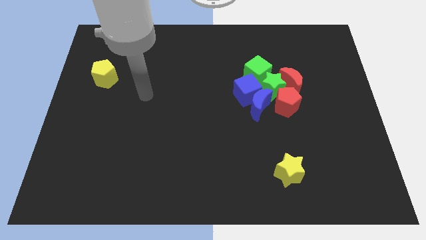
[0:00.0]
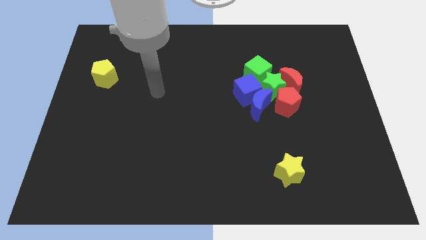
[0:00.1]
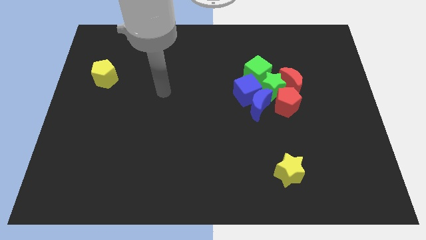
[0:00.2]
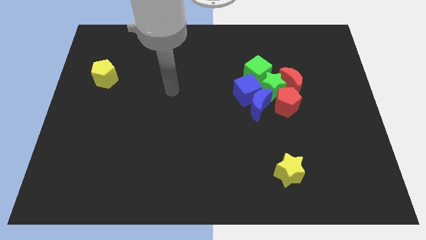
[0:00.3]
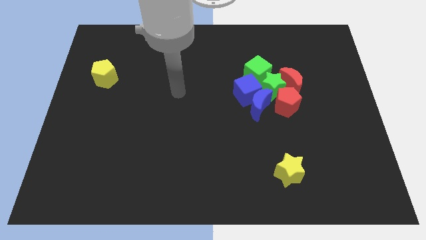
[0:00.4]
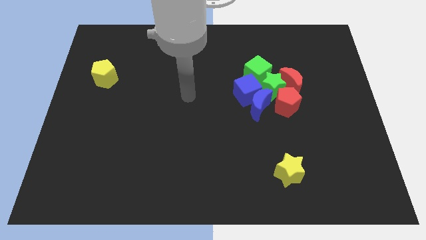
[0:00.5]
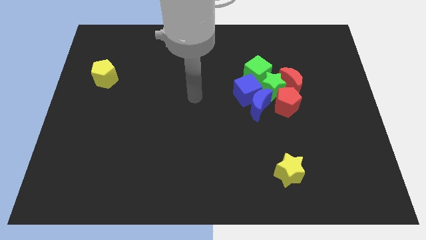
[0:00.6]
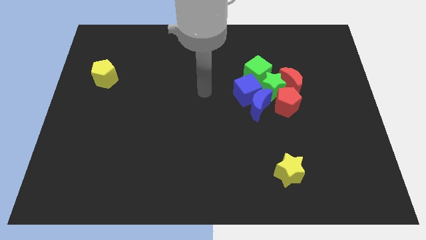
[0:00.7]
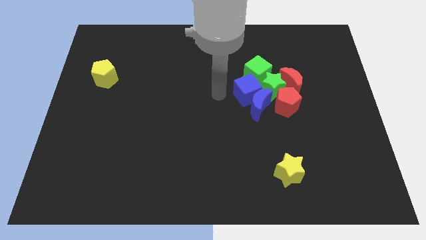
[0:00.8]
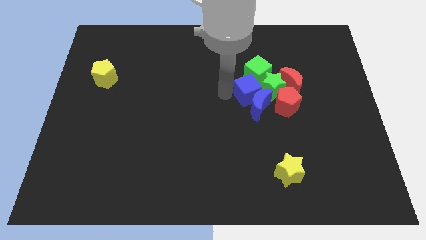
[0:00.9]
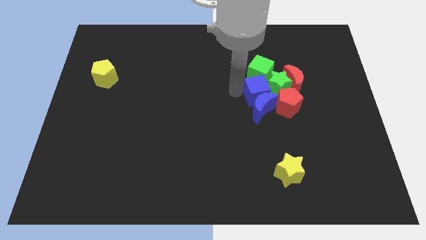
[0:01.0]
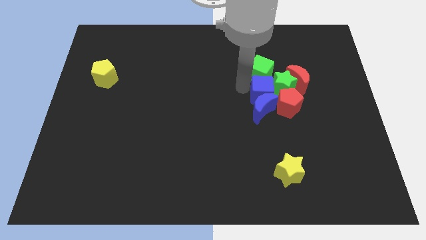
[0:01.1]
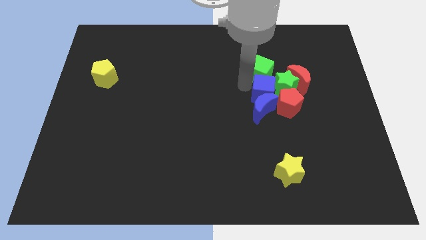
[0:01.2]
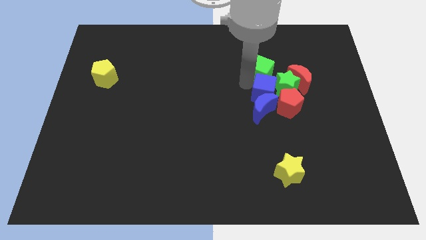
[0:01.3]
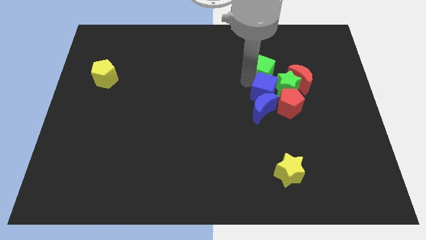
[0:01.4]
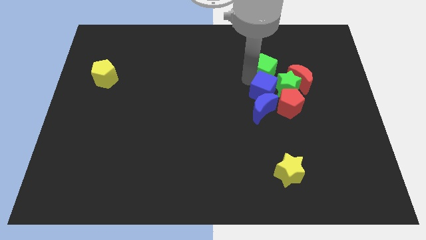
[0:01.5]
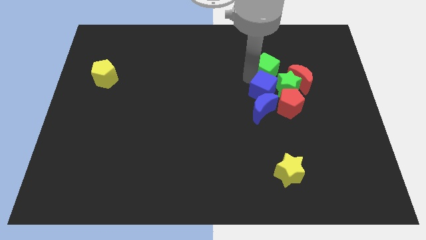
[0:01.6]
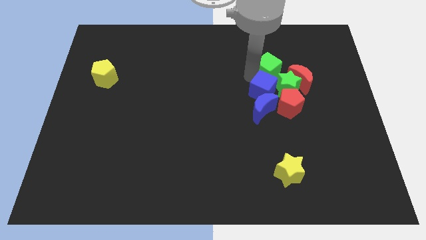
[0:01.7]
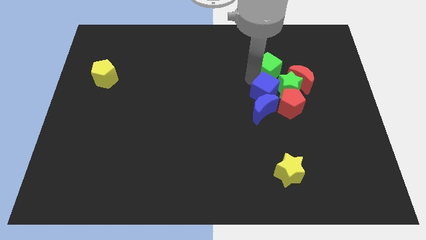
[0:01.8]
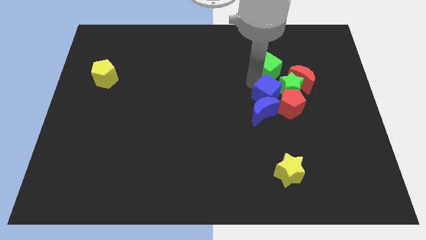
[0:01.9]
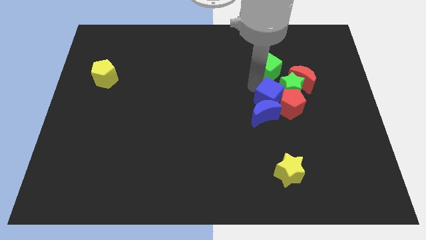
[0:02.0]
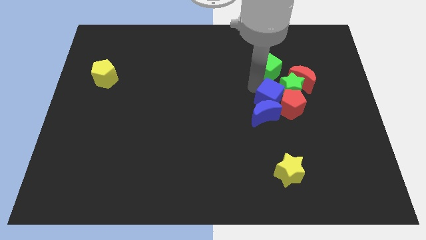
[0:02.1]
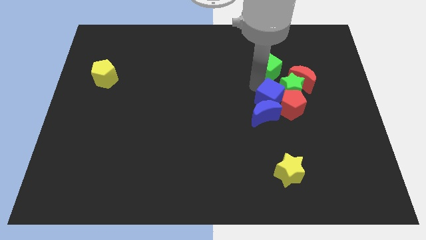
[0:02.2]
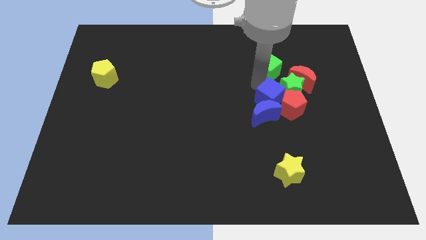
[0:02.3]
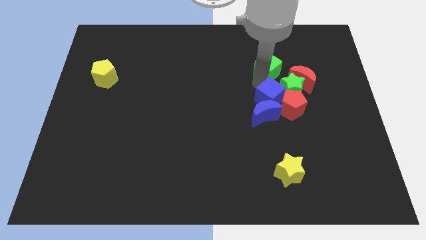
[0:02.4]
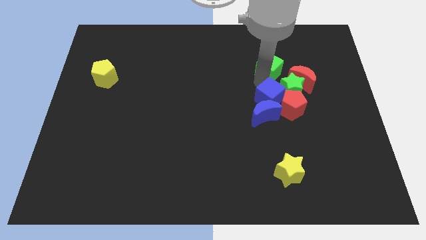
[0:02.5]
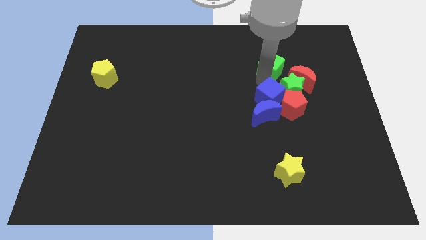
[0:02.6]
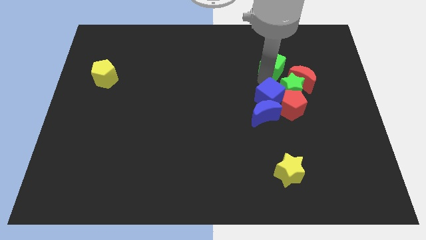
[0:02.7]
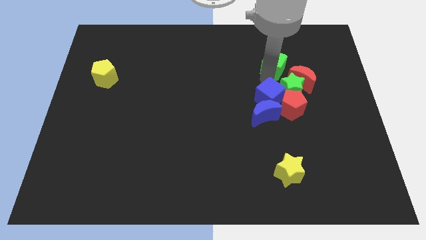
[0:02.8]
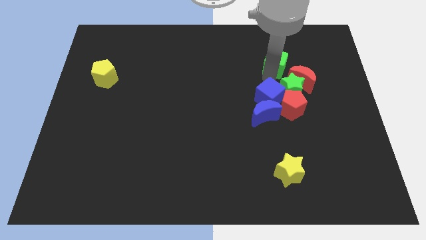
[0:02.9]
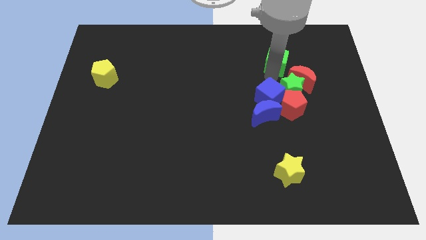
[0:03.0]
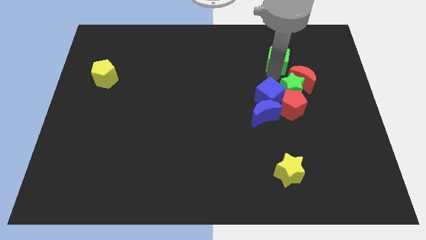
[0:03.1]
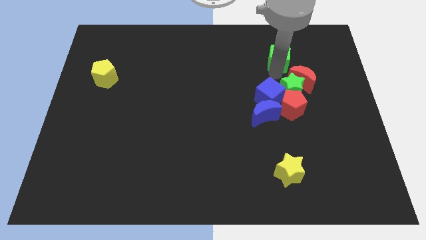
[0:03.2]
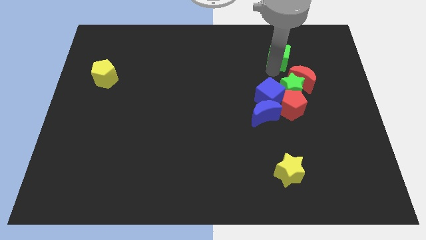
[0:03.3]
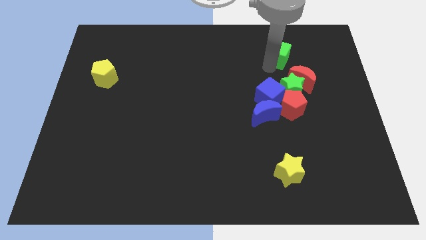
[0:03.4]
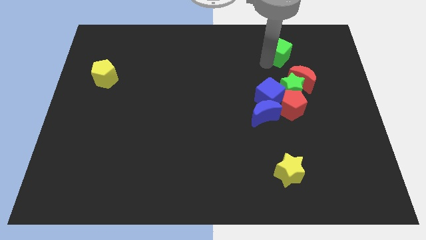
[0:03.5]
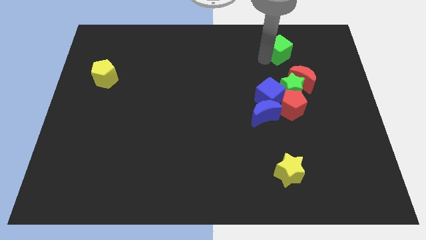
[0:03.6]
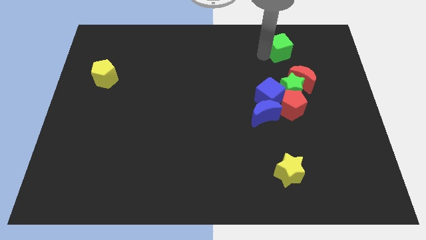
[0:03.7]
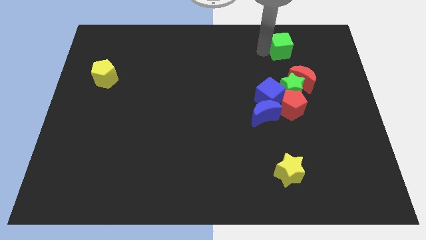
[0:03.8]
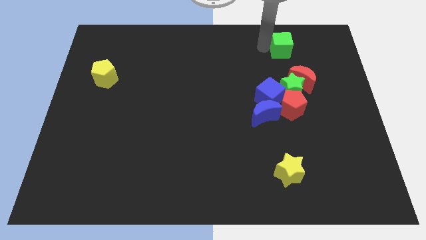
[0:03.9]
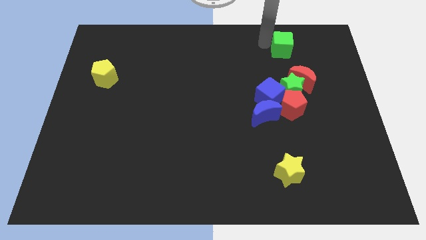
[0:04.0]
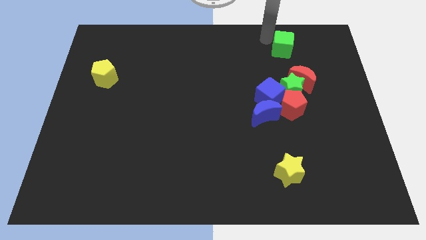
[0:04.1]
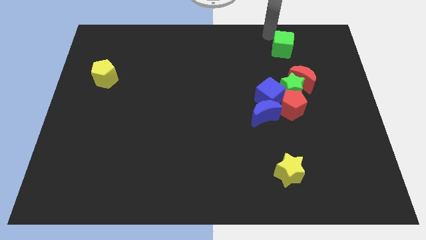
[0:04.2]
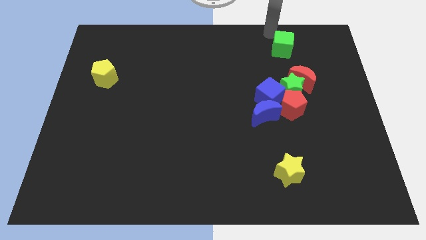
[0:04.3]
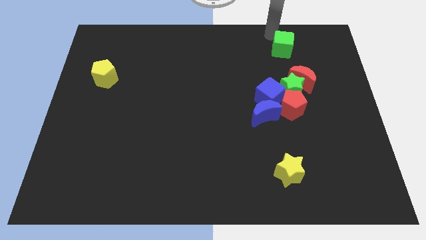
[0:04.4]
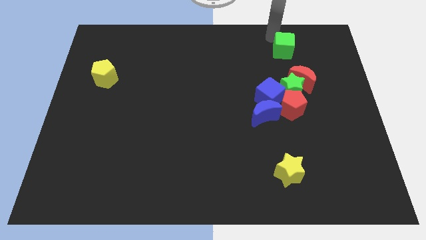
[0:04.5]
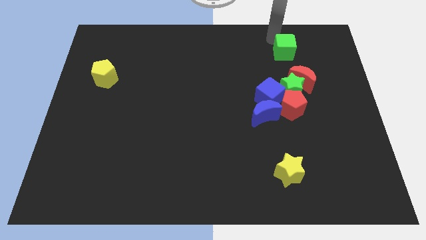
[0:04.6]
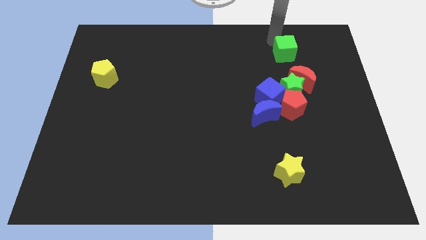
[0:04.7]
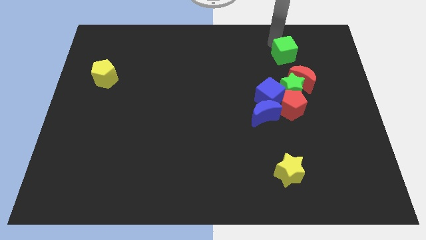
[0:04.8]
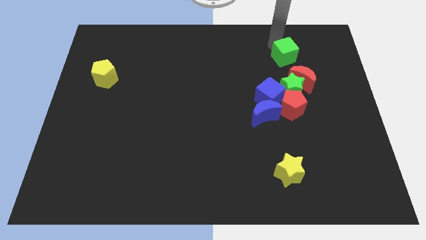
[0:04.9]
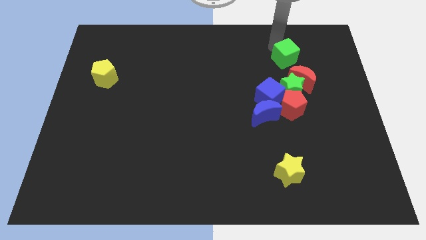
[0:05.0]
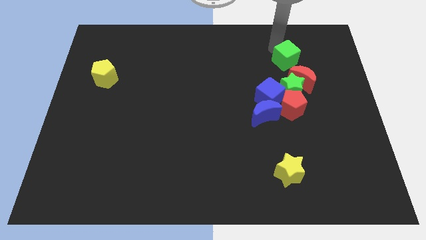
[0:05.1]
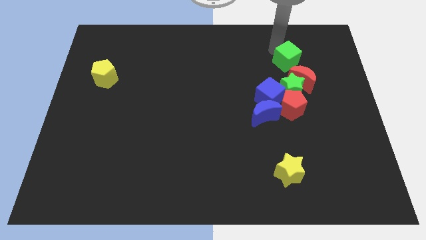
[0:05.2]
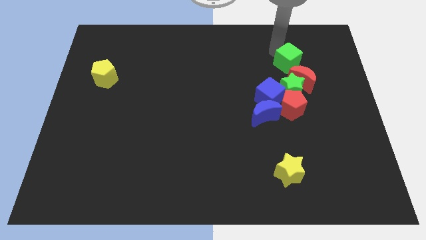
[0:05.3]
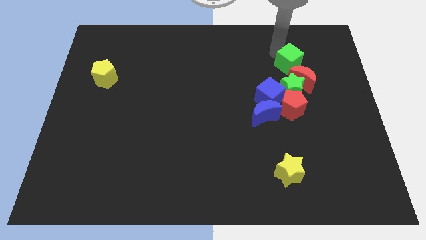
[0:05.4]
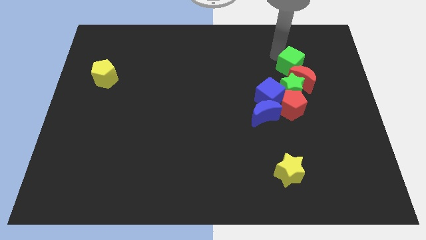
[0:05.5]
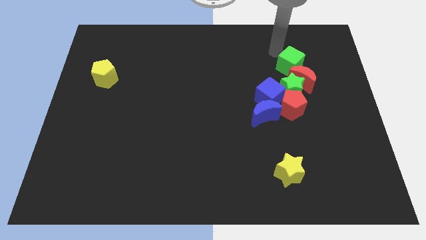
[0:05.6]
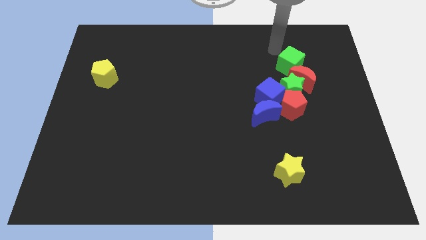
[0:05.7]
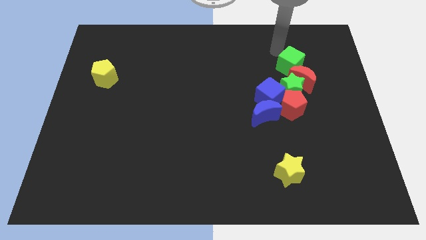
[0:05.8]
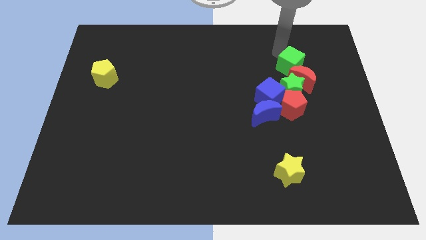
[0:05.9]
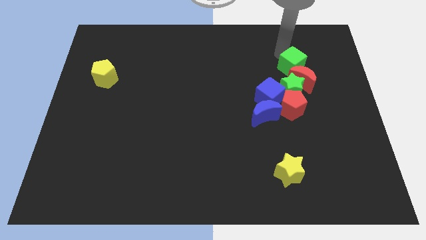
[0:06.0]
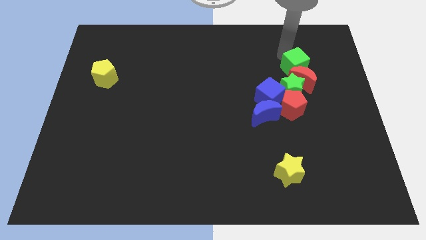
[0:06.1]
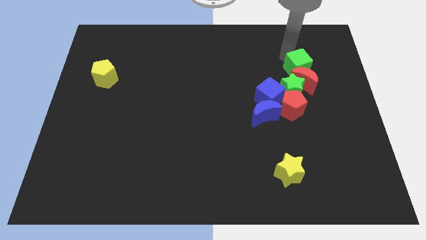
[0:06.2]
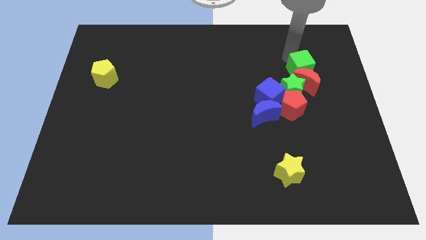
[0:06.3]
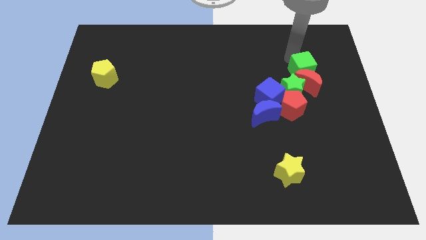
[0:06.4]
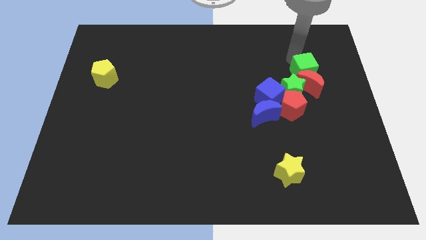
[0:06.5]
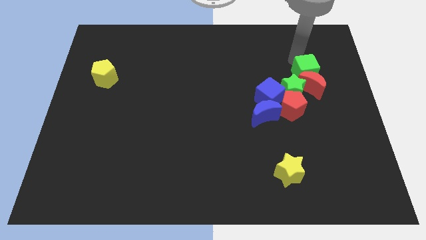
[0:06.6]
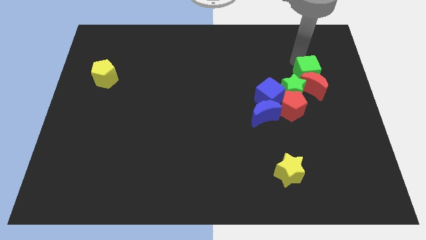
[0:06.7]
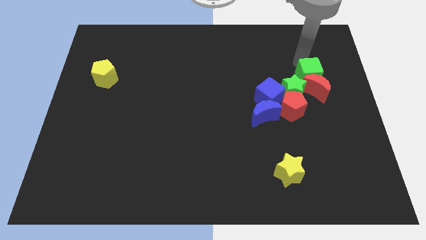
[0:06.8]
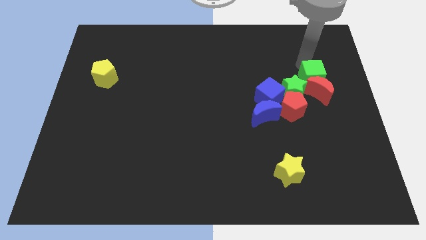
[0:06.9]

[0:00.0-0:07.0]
slide the green cube a little downwards and right diagonally

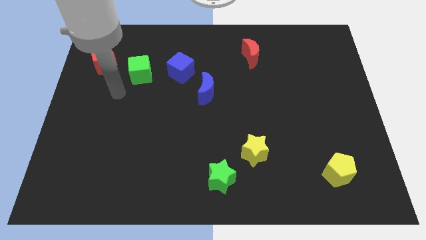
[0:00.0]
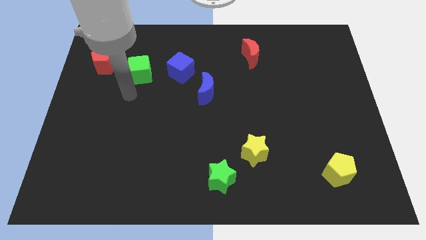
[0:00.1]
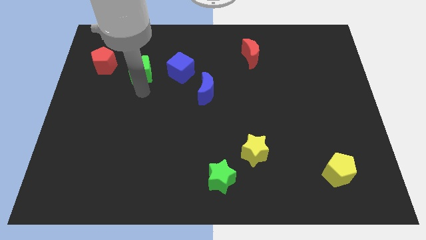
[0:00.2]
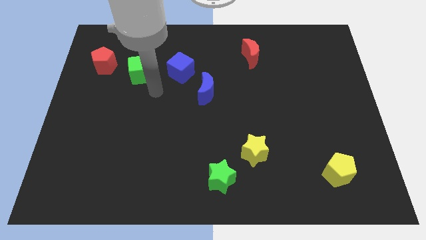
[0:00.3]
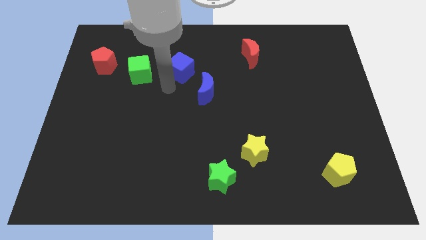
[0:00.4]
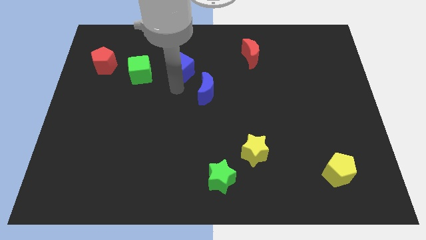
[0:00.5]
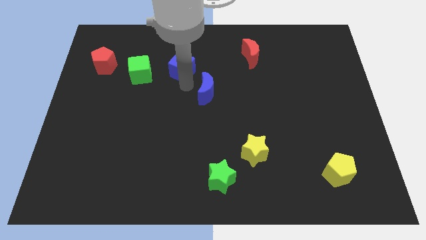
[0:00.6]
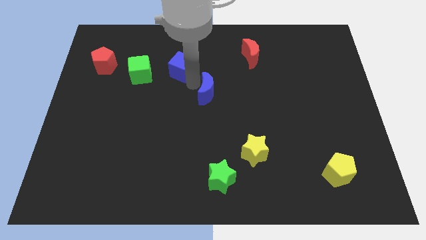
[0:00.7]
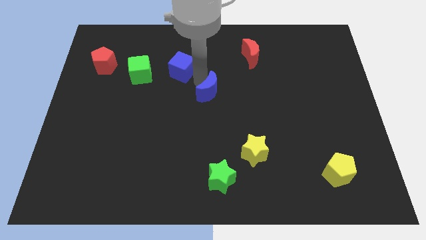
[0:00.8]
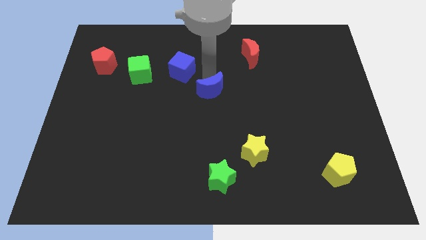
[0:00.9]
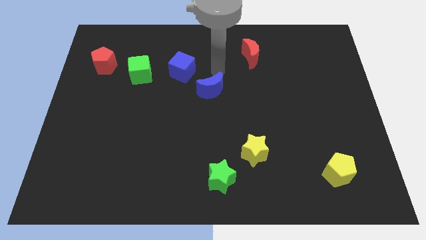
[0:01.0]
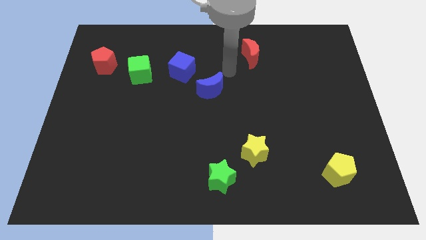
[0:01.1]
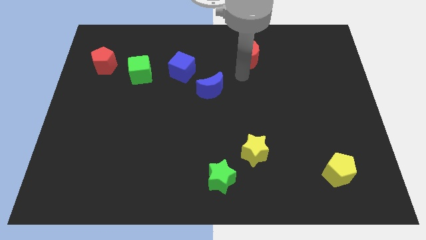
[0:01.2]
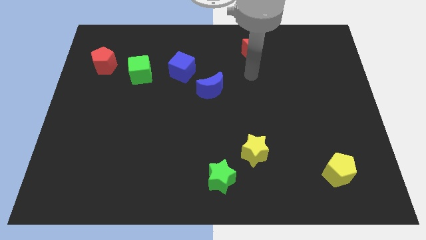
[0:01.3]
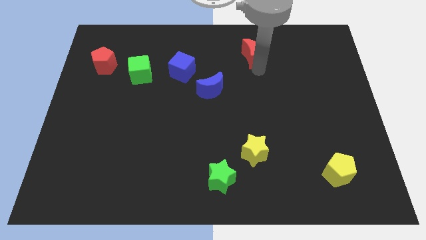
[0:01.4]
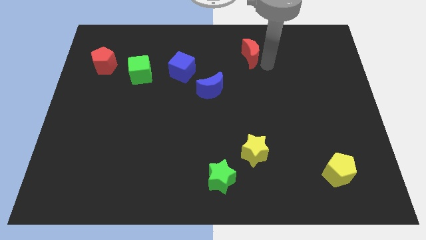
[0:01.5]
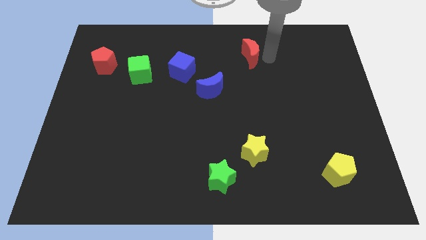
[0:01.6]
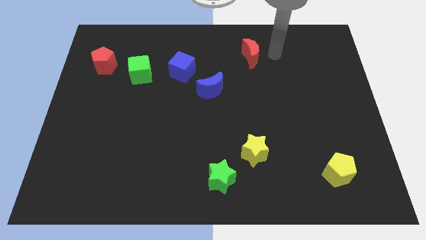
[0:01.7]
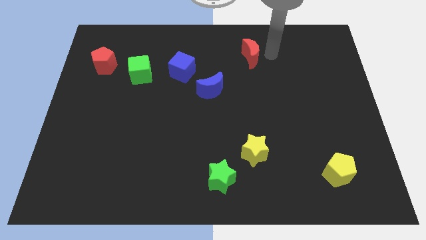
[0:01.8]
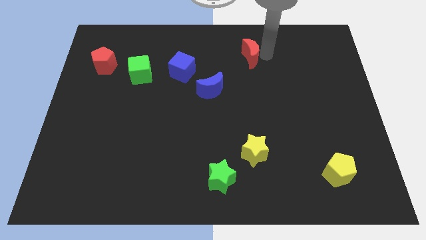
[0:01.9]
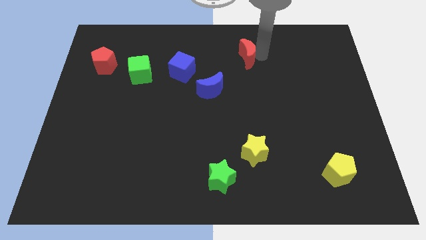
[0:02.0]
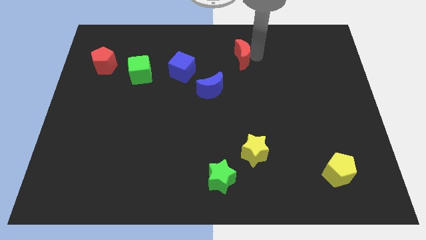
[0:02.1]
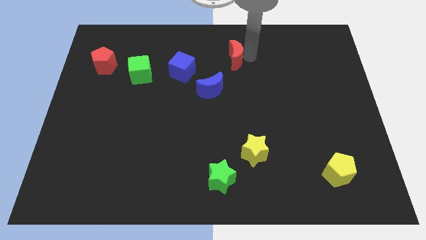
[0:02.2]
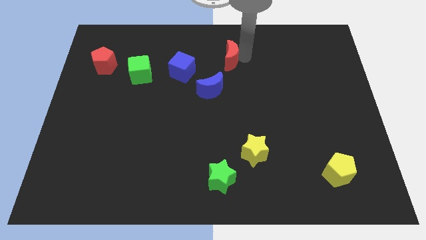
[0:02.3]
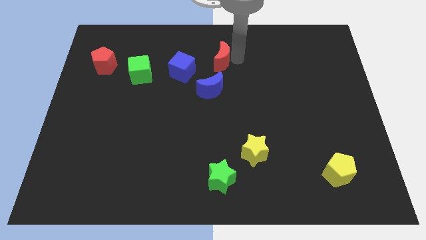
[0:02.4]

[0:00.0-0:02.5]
push the red moon a little bit left
